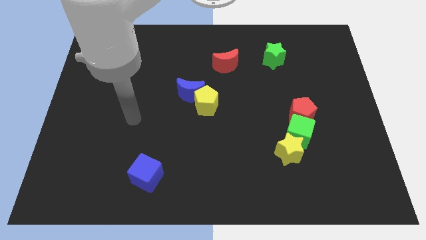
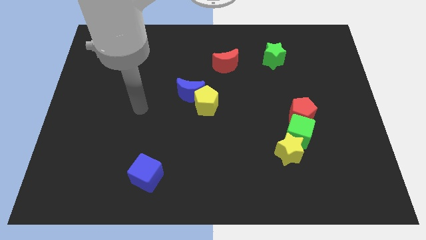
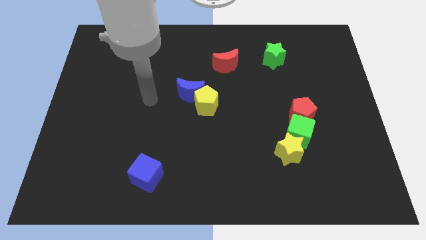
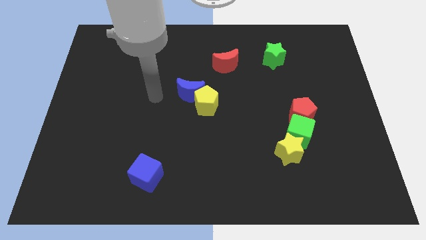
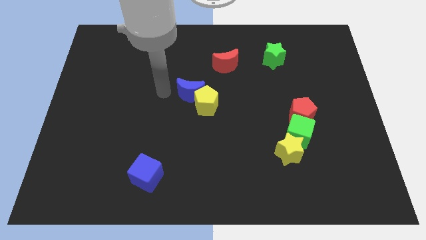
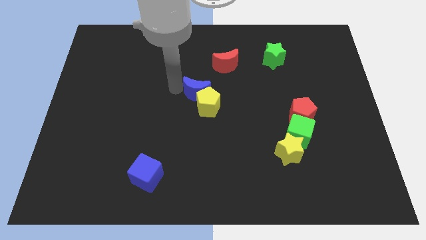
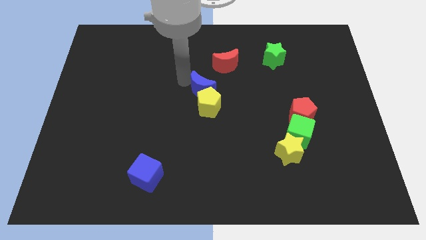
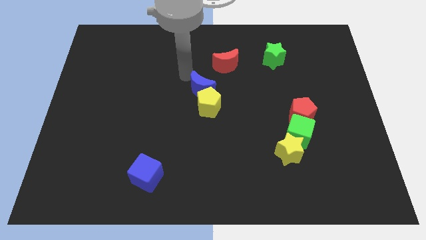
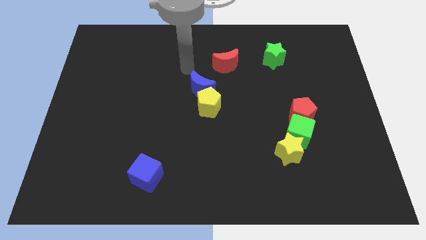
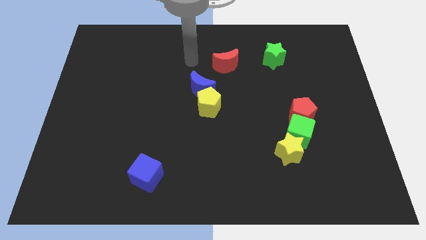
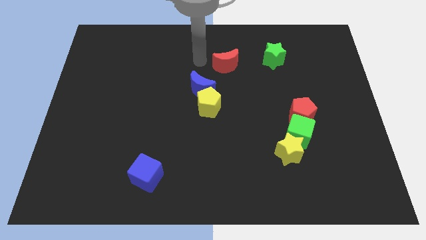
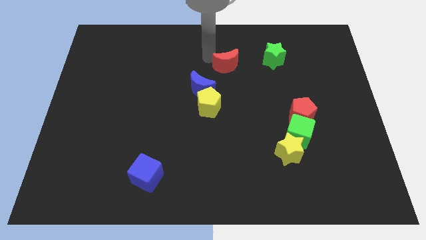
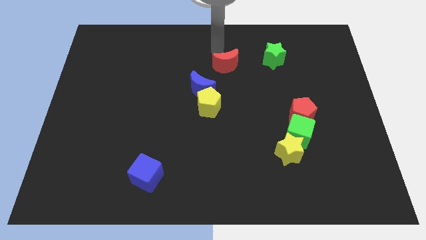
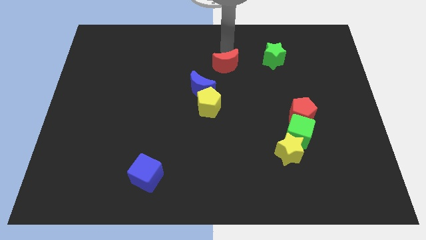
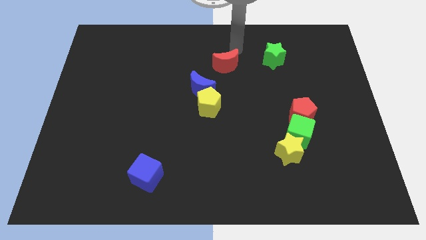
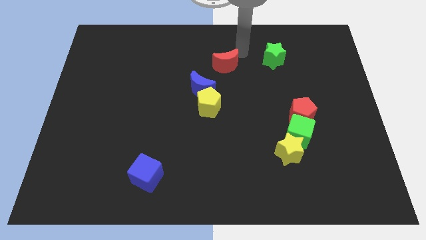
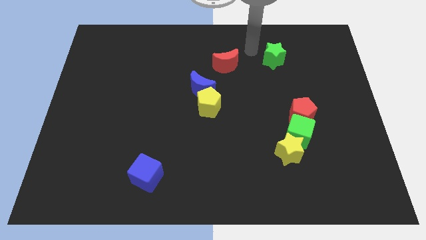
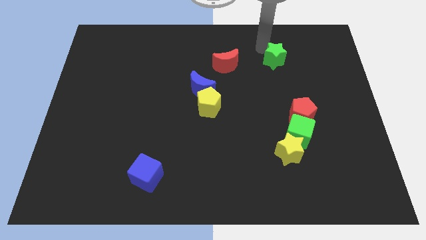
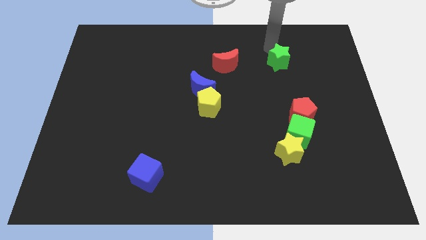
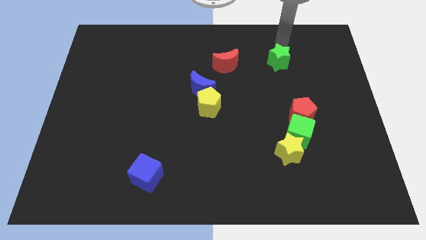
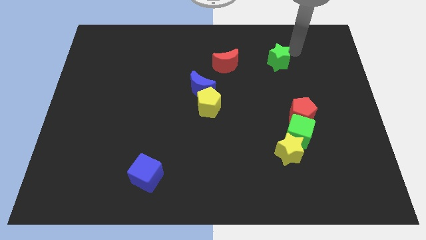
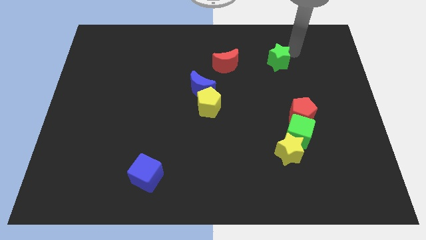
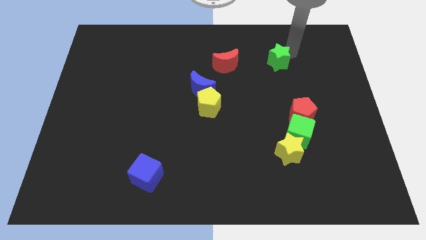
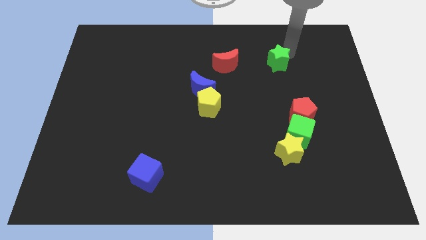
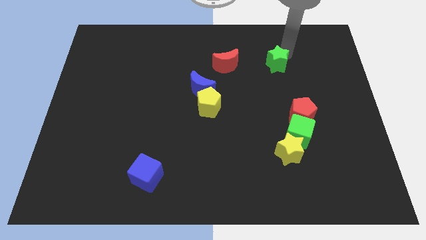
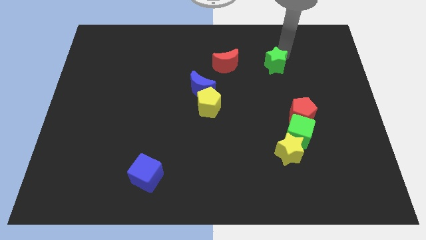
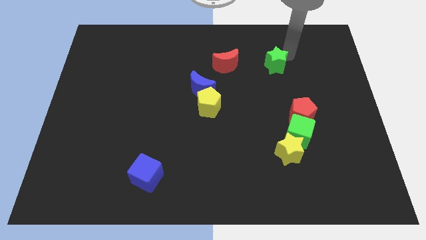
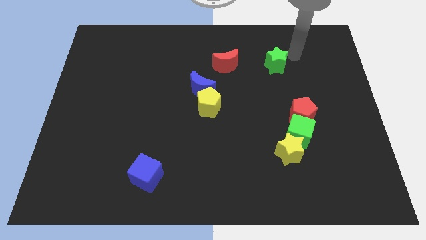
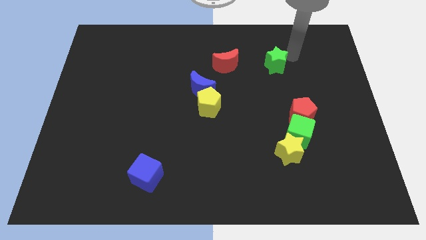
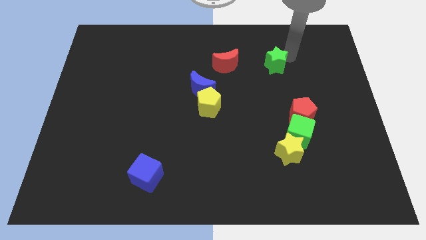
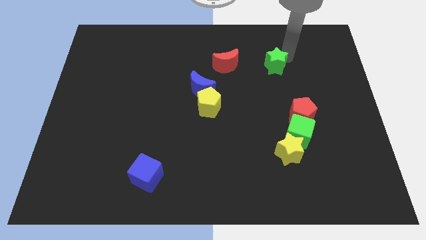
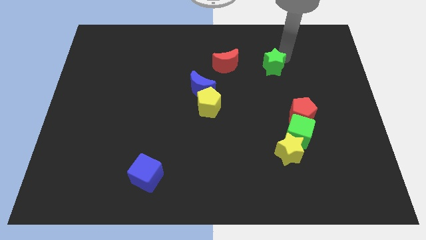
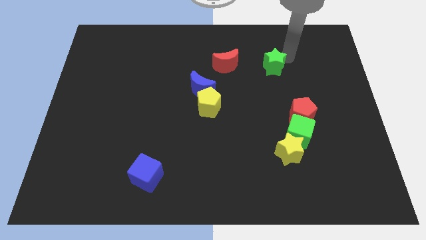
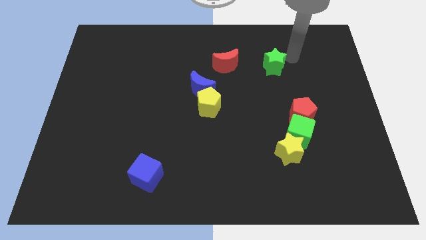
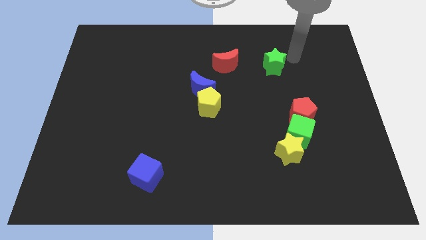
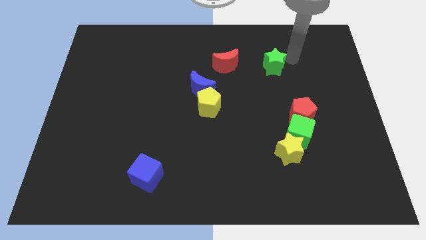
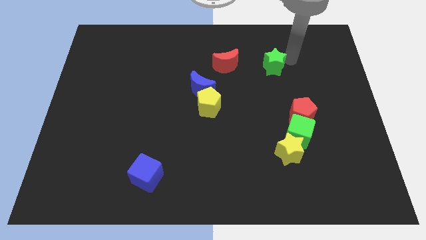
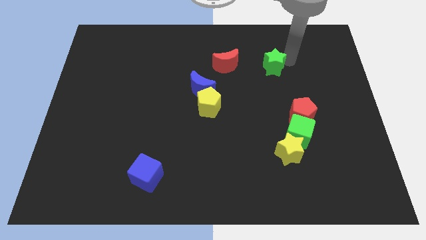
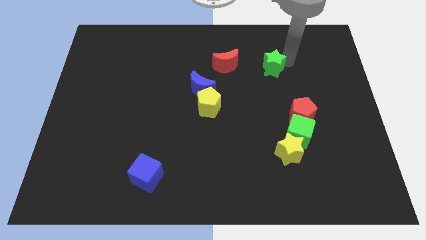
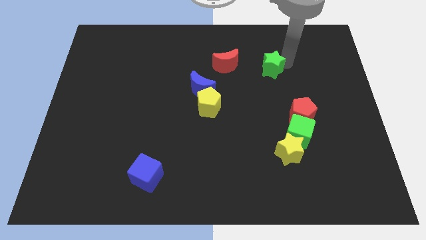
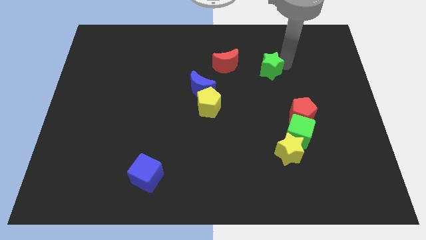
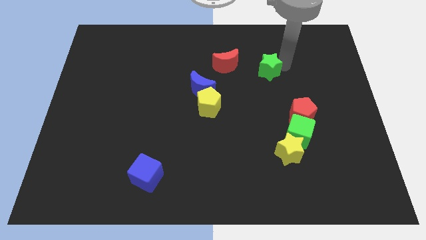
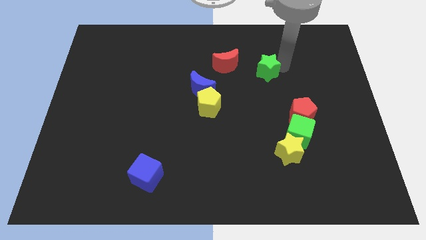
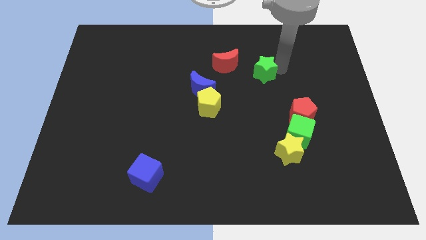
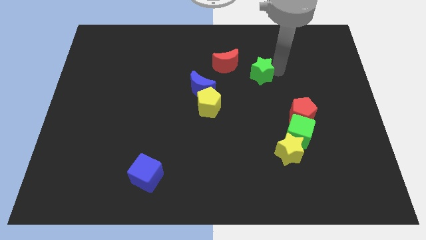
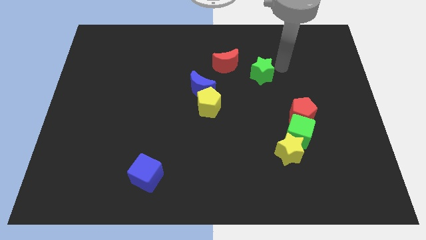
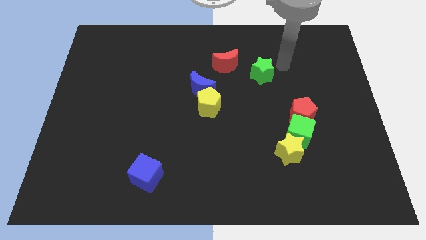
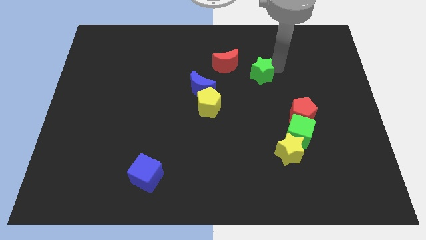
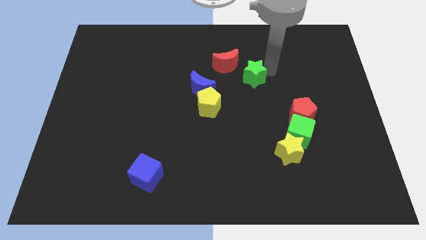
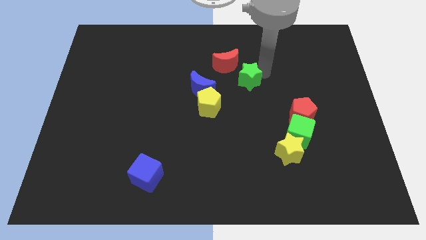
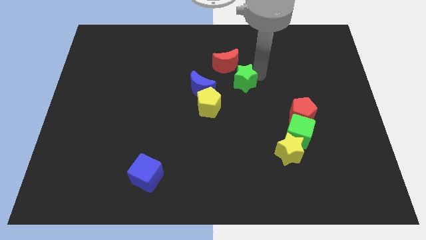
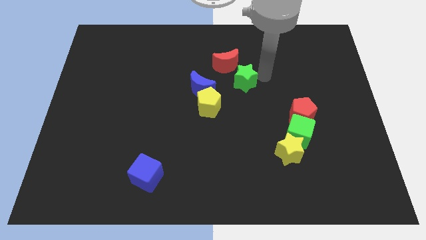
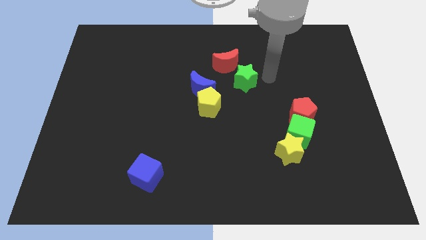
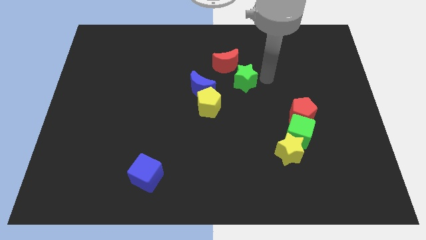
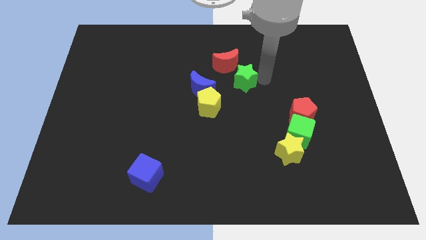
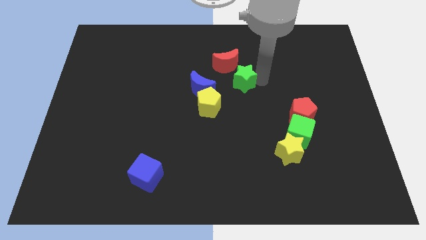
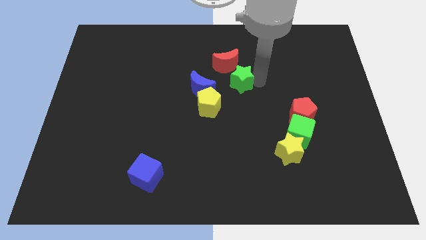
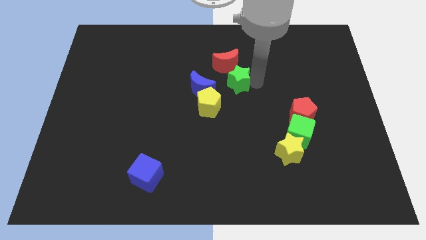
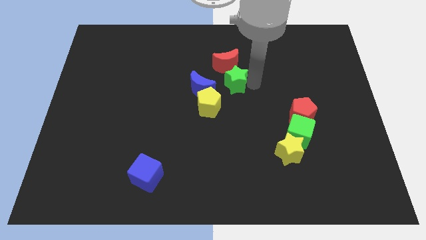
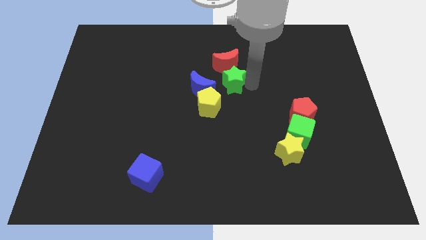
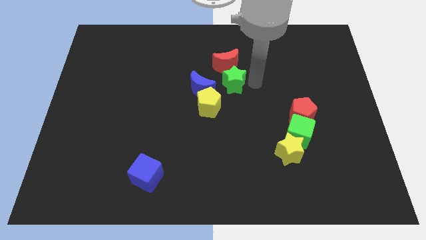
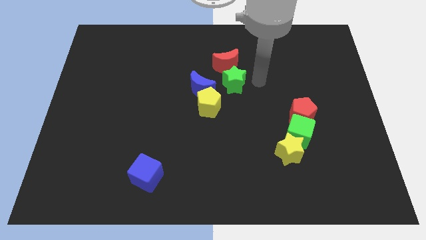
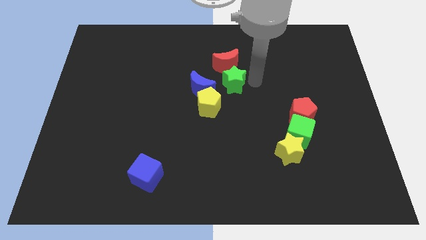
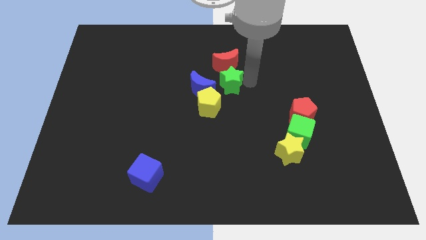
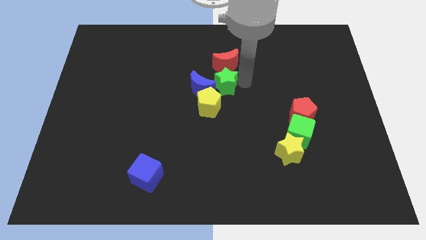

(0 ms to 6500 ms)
put the green star to the blue moon

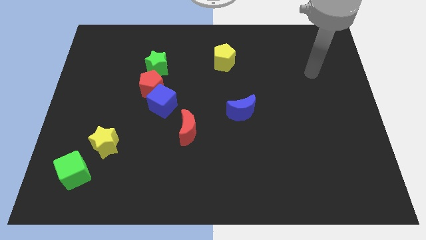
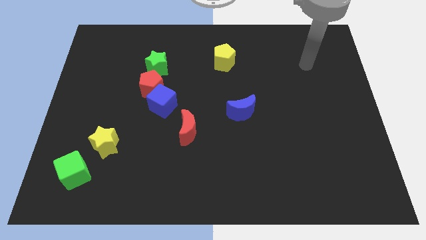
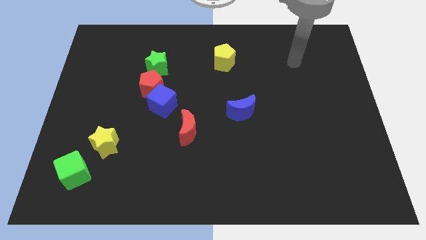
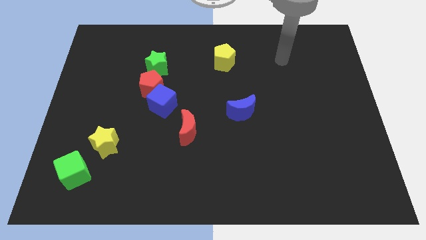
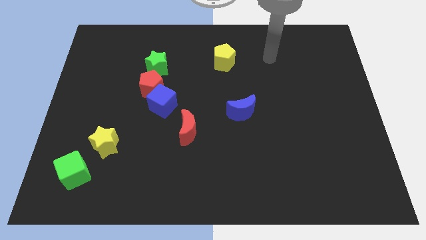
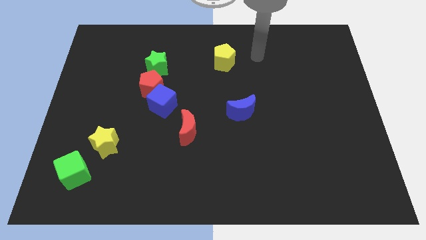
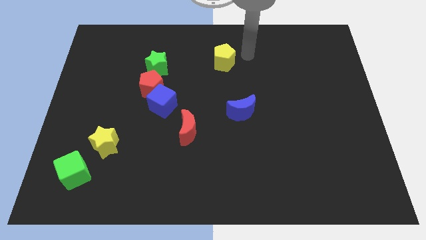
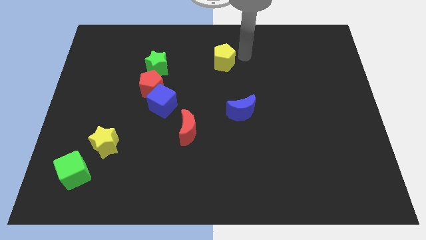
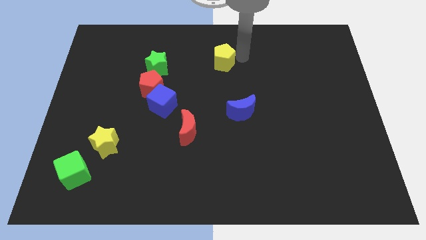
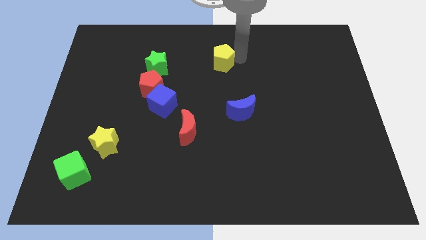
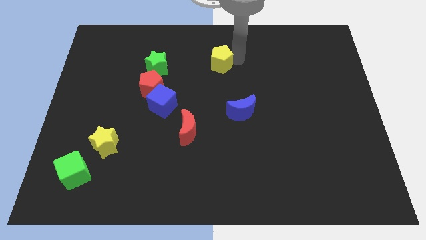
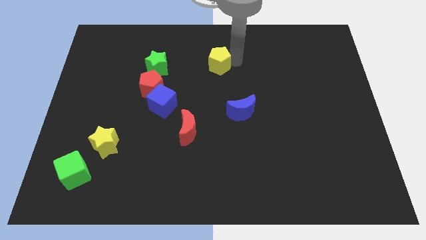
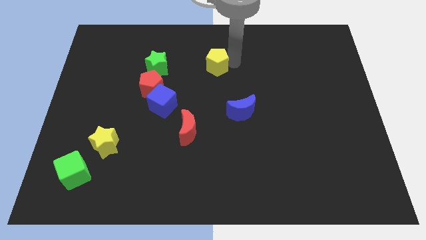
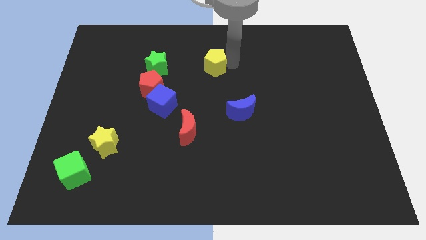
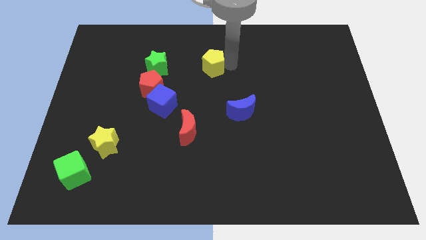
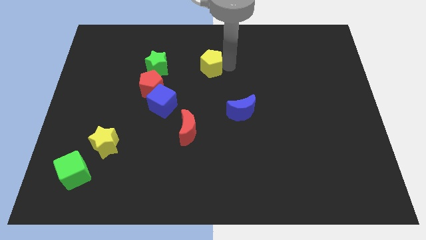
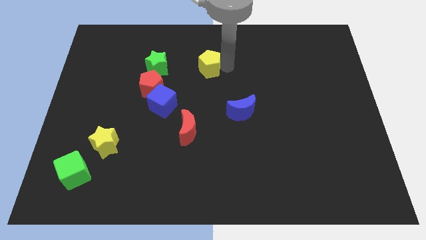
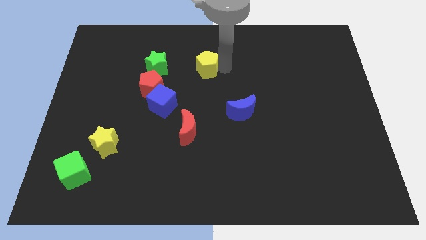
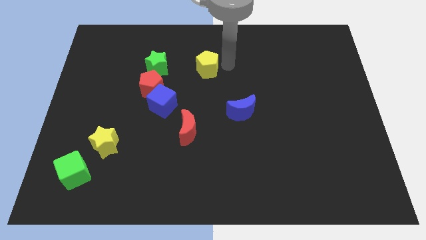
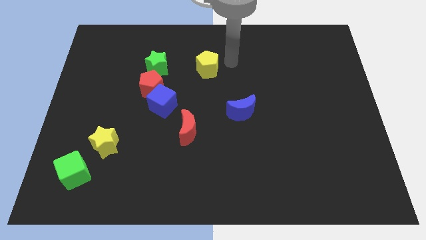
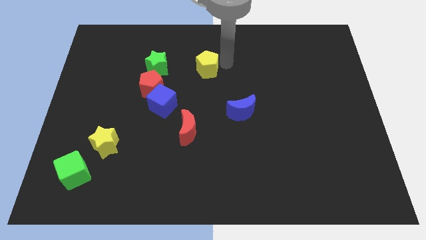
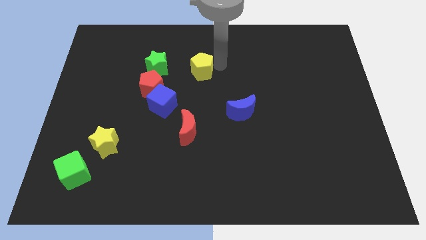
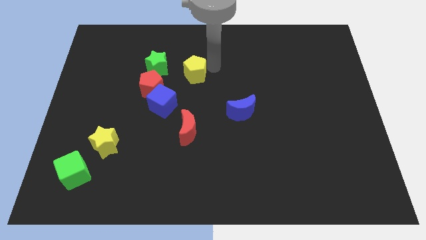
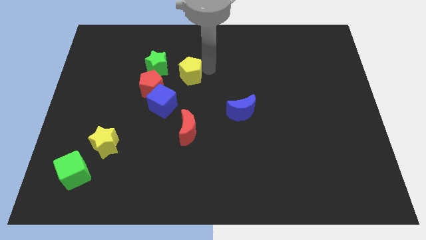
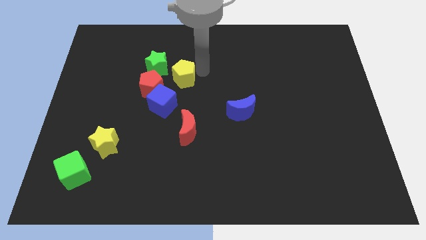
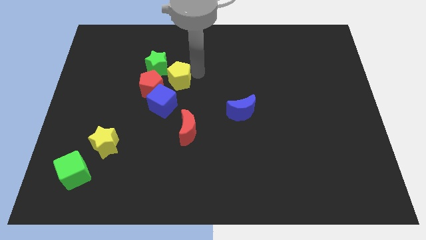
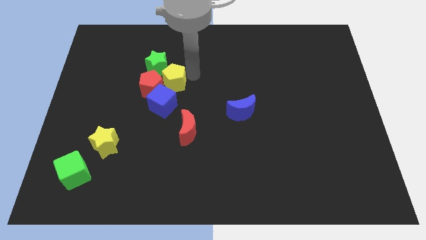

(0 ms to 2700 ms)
push the yellow pentagon towards the red pentagon
